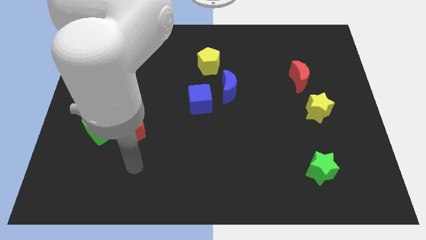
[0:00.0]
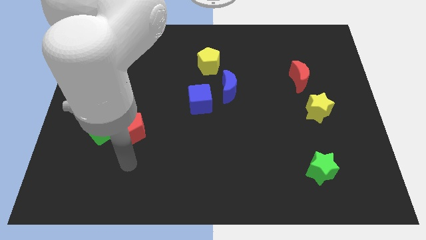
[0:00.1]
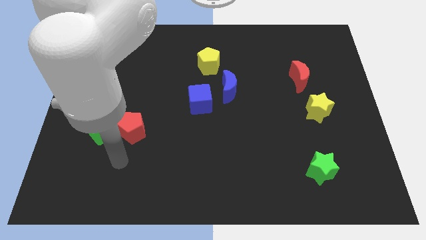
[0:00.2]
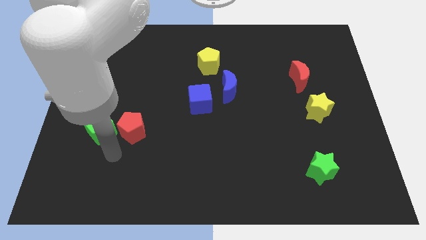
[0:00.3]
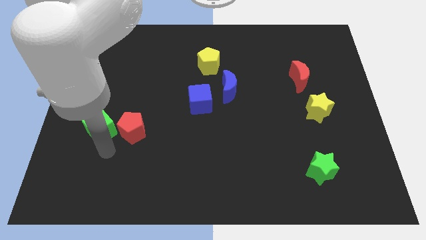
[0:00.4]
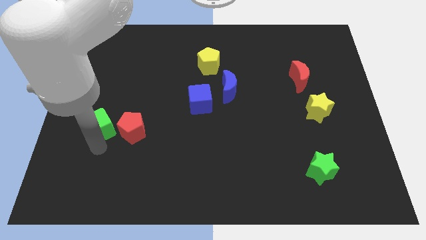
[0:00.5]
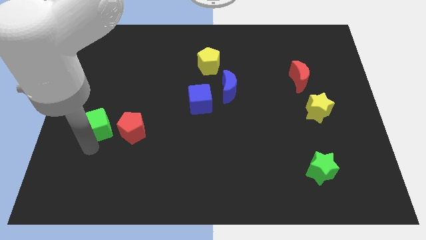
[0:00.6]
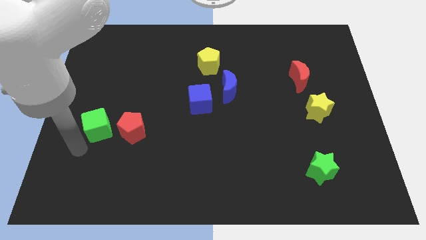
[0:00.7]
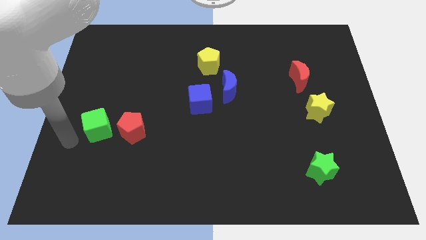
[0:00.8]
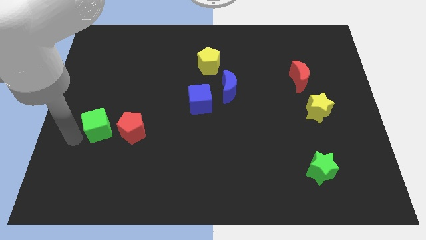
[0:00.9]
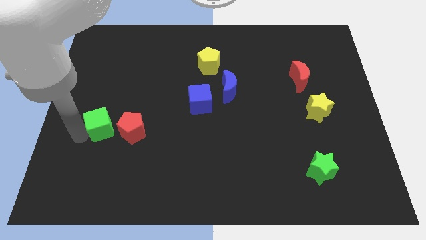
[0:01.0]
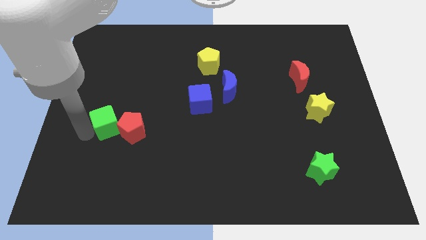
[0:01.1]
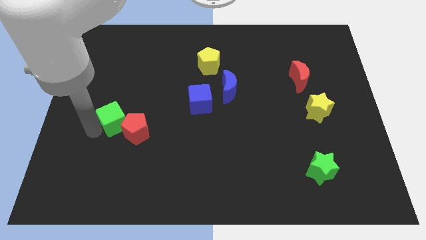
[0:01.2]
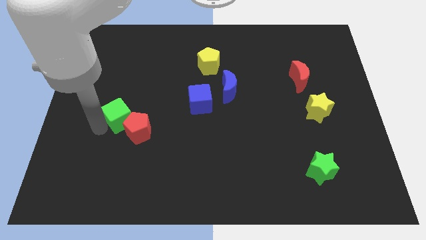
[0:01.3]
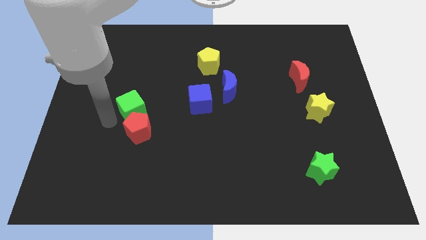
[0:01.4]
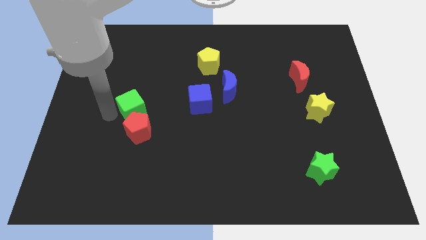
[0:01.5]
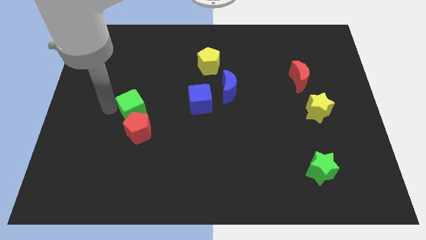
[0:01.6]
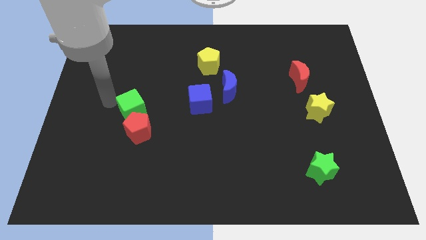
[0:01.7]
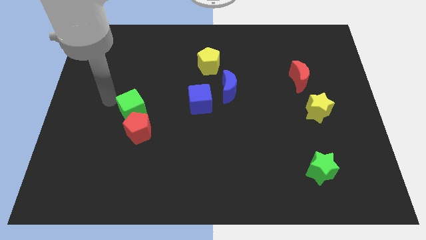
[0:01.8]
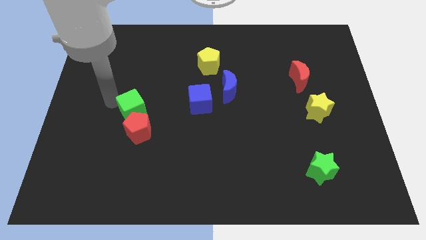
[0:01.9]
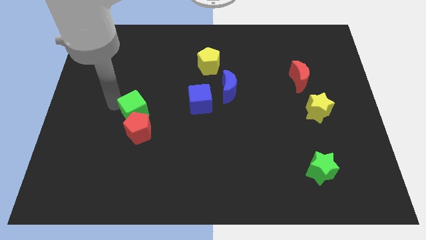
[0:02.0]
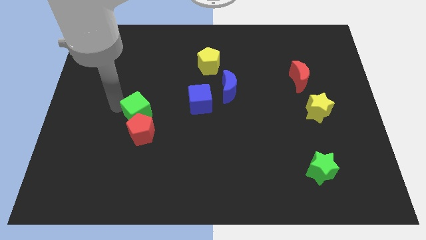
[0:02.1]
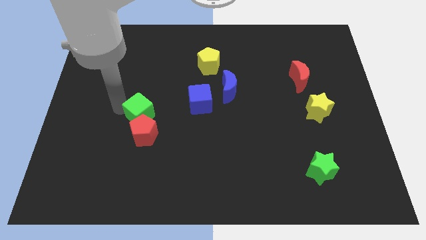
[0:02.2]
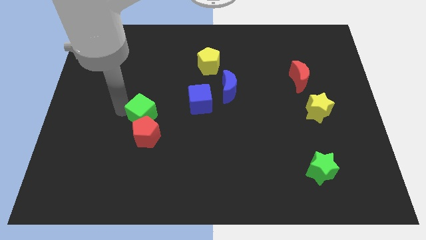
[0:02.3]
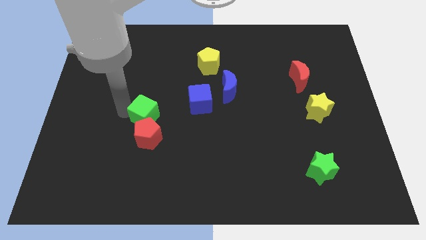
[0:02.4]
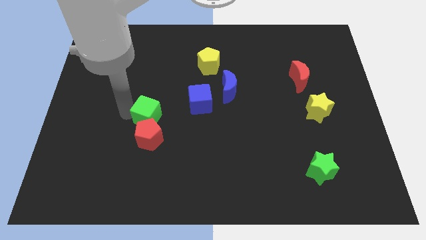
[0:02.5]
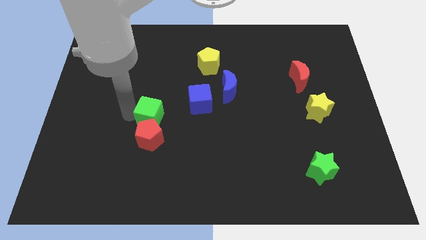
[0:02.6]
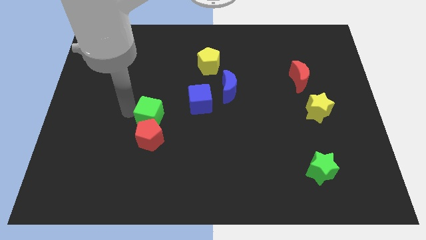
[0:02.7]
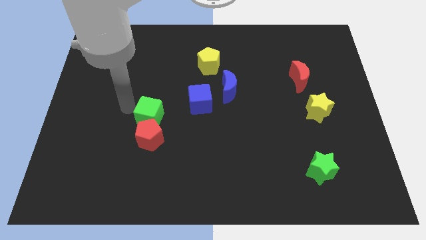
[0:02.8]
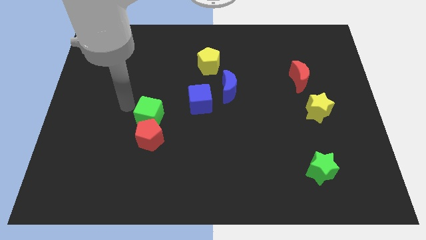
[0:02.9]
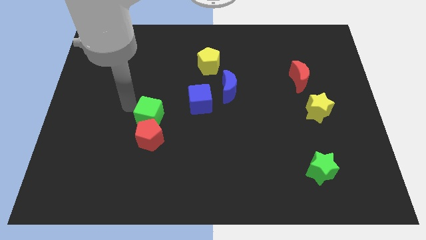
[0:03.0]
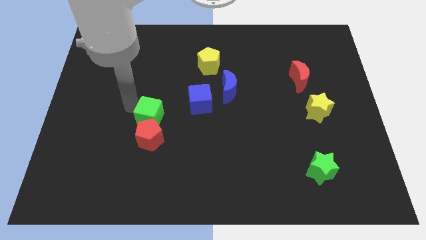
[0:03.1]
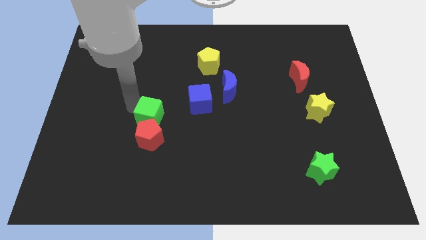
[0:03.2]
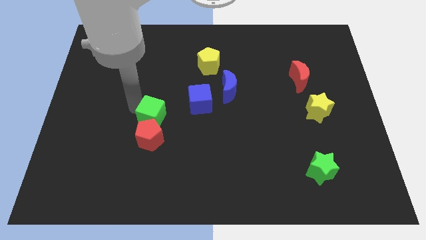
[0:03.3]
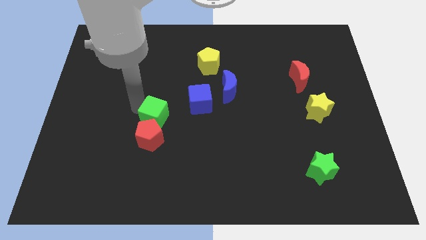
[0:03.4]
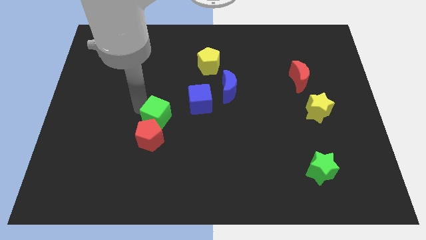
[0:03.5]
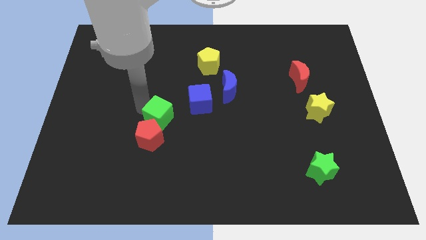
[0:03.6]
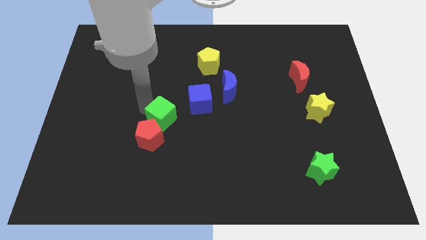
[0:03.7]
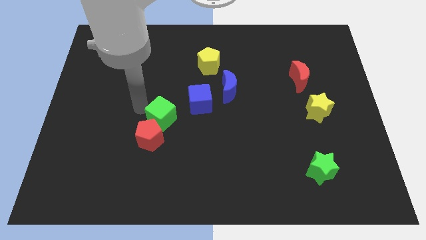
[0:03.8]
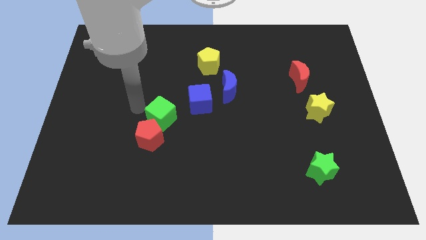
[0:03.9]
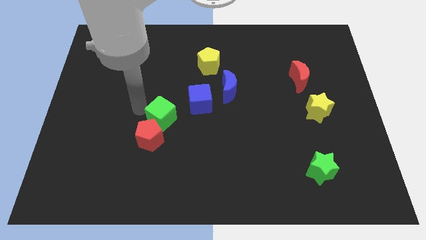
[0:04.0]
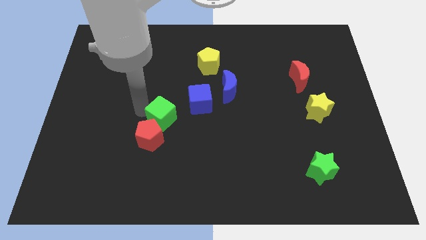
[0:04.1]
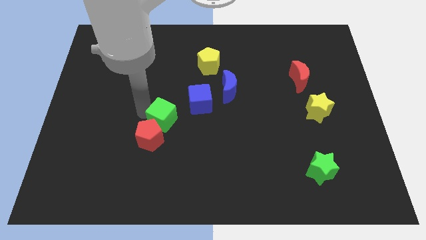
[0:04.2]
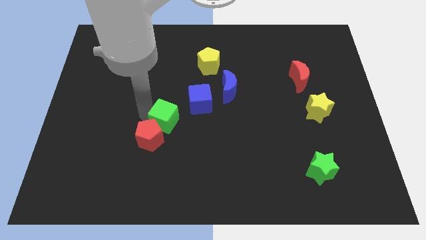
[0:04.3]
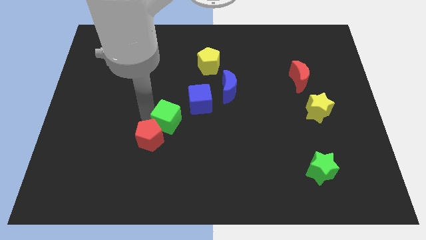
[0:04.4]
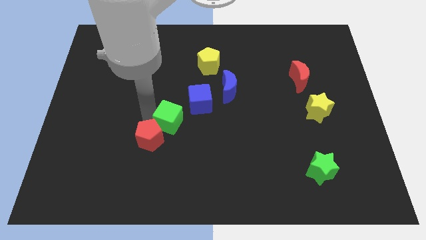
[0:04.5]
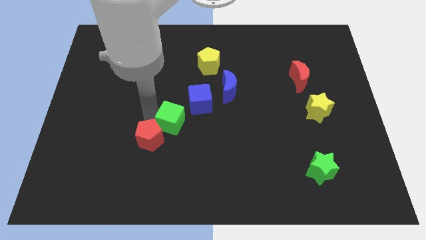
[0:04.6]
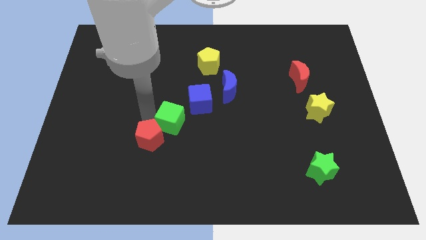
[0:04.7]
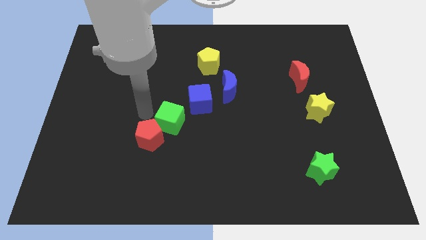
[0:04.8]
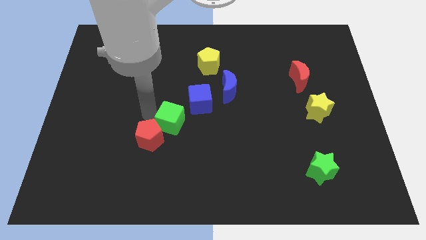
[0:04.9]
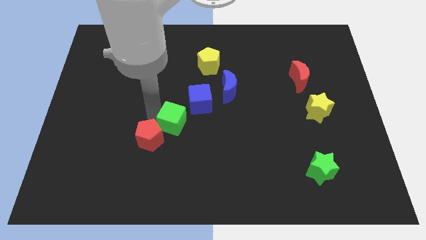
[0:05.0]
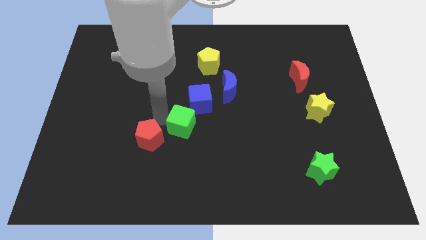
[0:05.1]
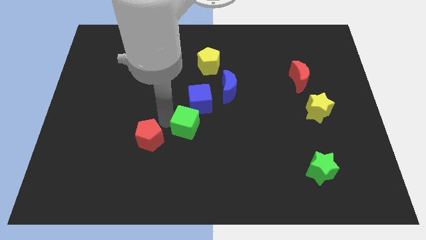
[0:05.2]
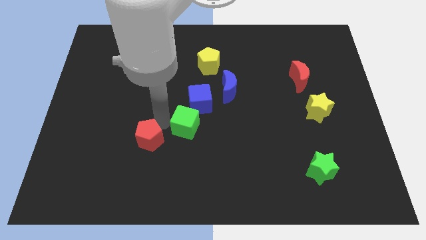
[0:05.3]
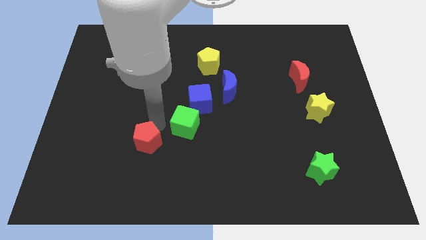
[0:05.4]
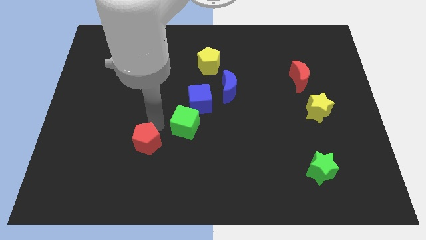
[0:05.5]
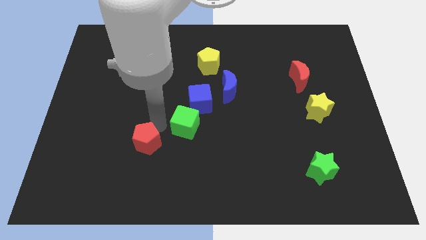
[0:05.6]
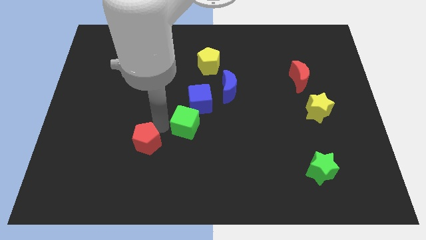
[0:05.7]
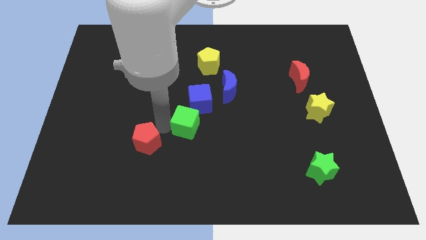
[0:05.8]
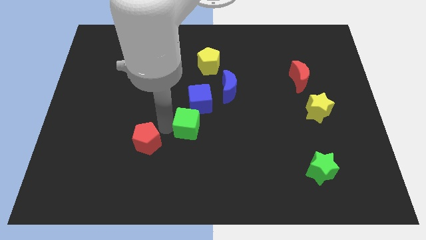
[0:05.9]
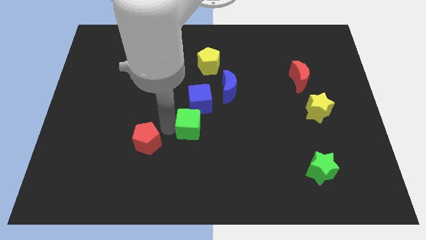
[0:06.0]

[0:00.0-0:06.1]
move the green cube to the right

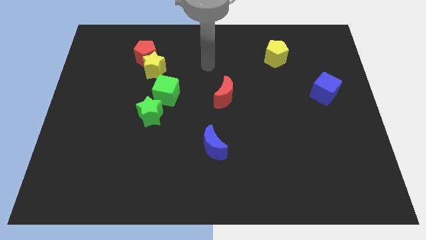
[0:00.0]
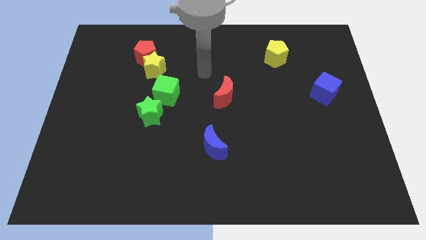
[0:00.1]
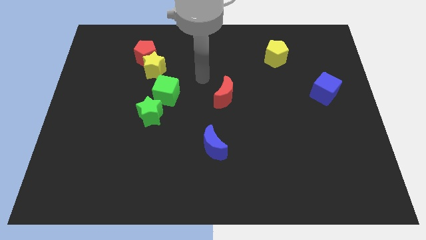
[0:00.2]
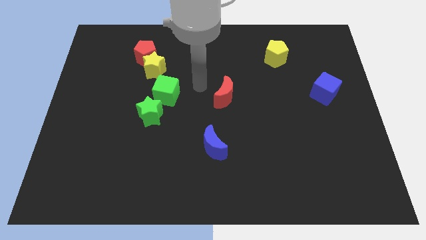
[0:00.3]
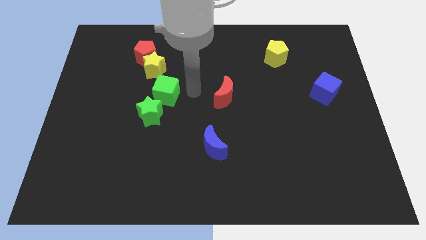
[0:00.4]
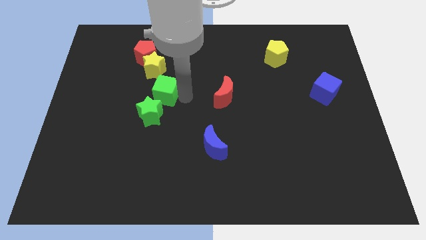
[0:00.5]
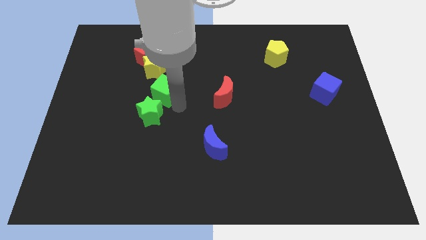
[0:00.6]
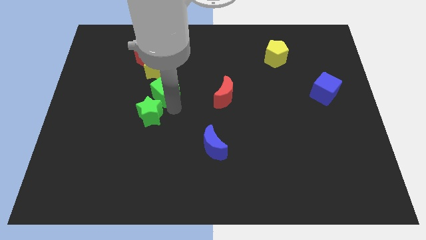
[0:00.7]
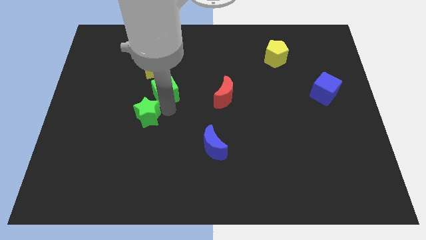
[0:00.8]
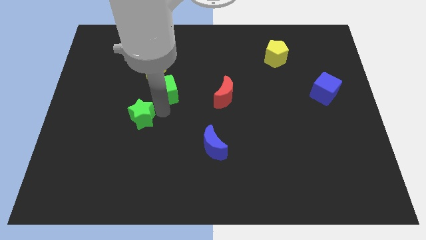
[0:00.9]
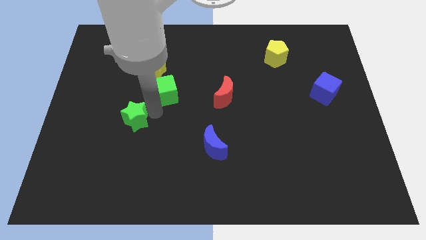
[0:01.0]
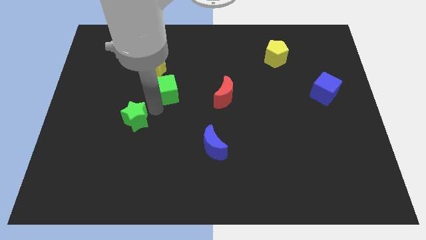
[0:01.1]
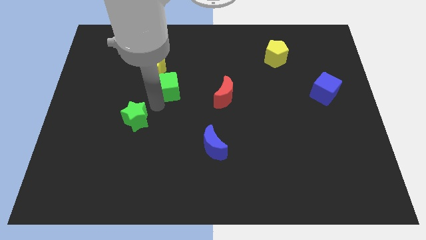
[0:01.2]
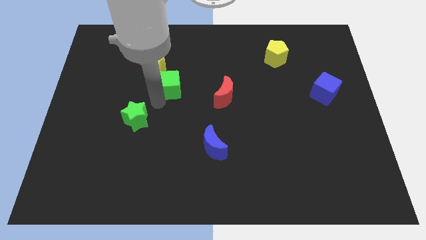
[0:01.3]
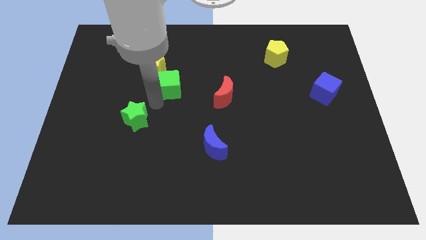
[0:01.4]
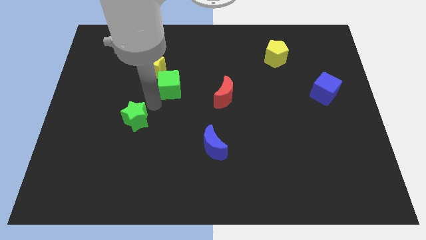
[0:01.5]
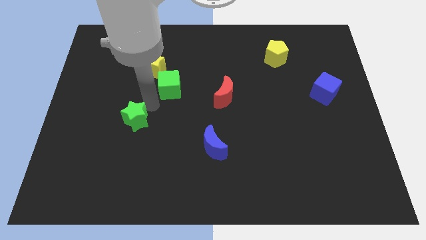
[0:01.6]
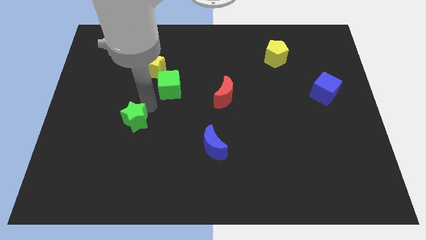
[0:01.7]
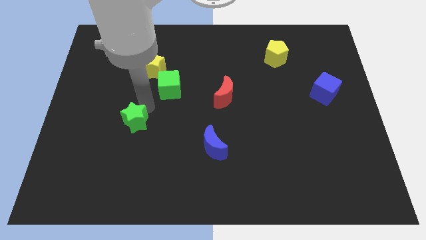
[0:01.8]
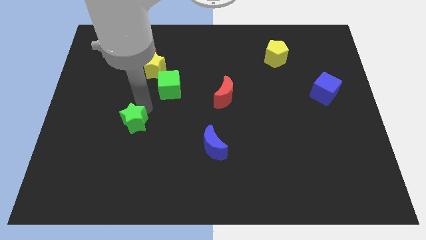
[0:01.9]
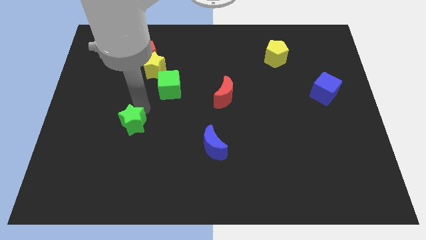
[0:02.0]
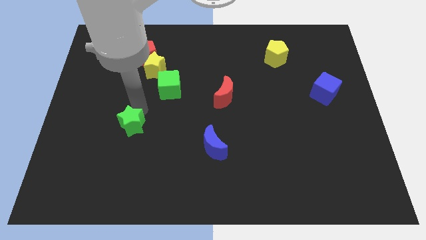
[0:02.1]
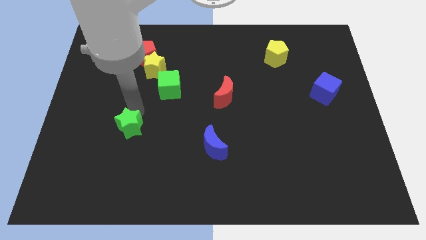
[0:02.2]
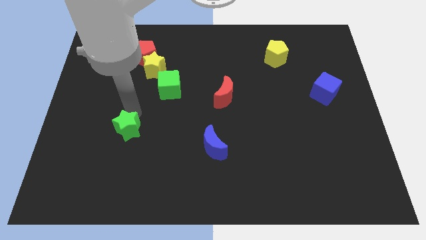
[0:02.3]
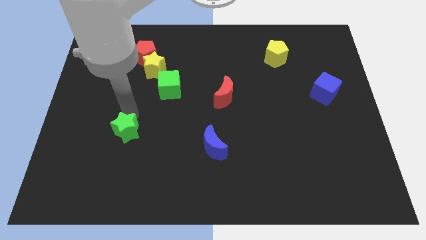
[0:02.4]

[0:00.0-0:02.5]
push the green star slightly downwards and then left
